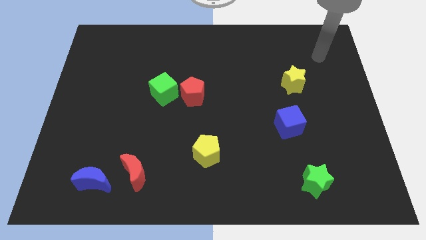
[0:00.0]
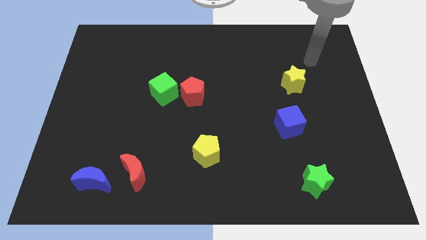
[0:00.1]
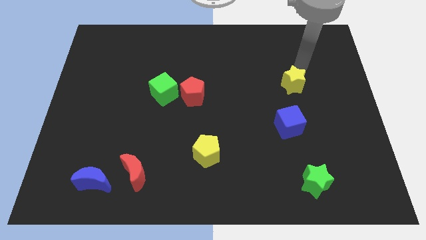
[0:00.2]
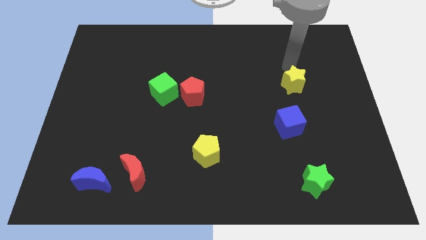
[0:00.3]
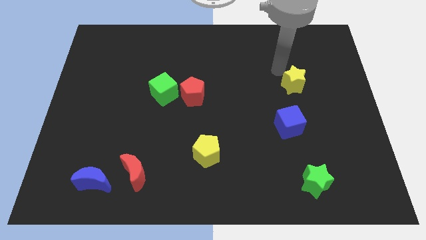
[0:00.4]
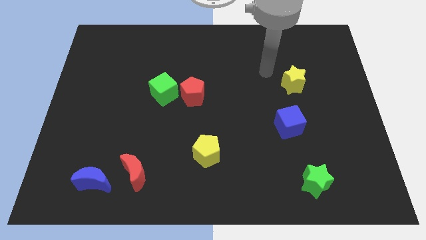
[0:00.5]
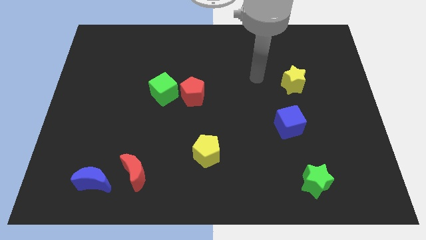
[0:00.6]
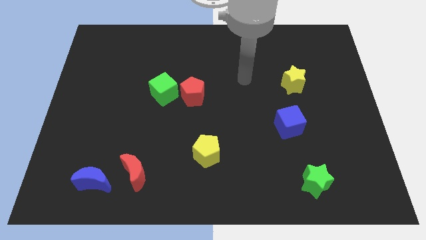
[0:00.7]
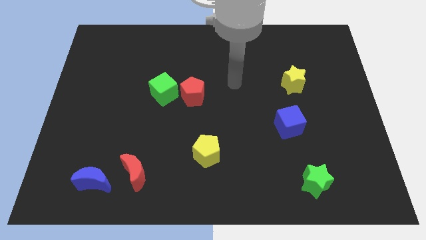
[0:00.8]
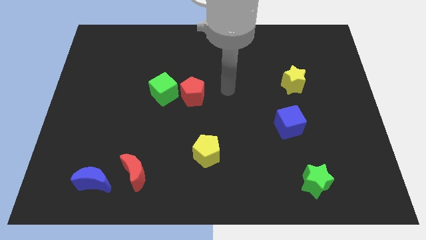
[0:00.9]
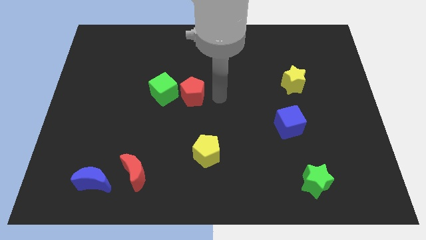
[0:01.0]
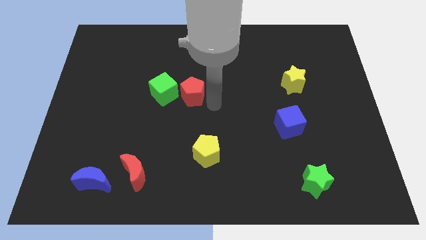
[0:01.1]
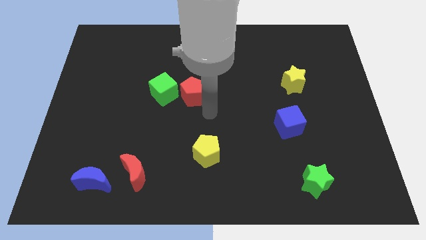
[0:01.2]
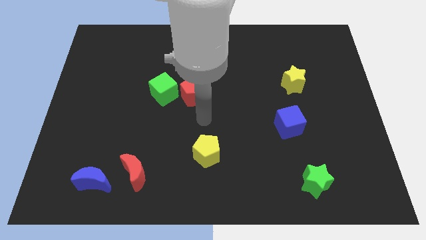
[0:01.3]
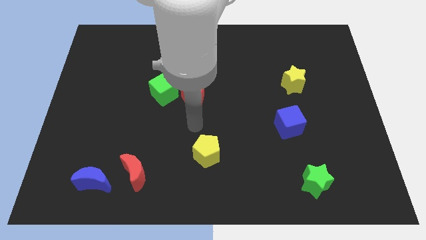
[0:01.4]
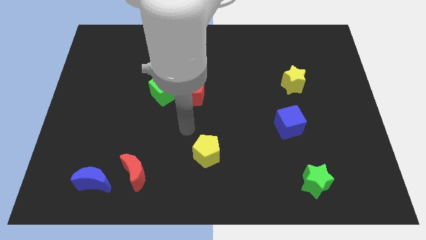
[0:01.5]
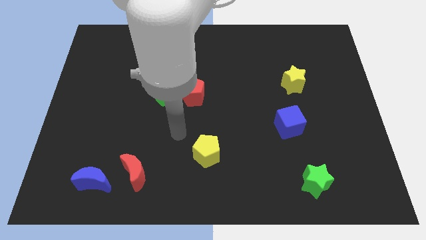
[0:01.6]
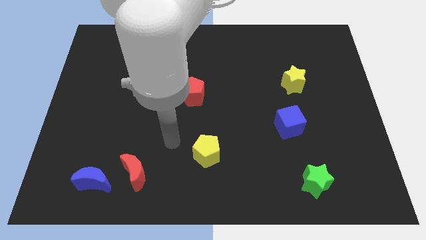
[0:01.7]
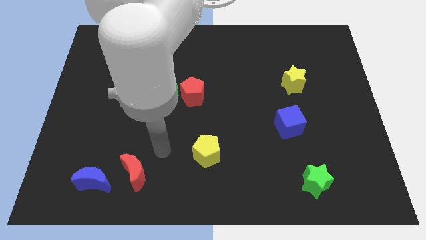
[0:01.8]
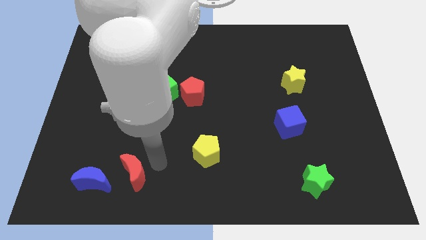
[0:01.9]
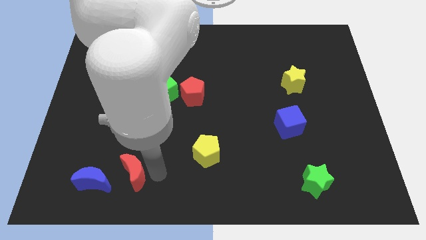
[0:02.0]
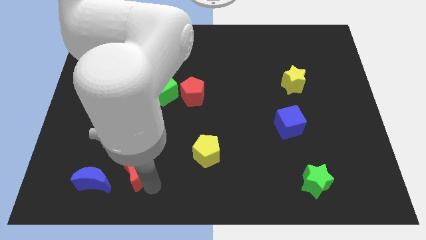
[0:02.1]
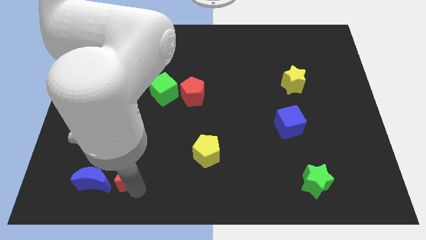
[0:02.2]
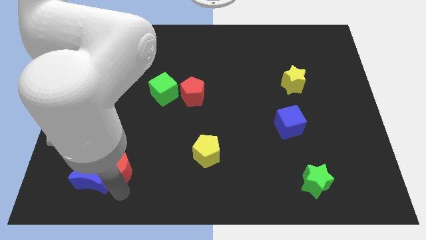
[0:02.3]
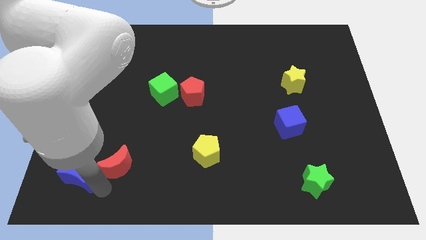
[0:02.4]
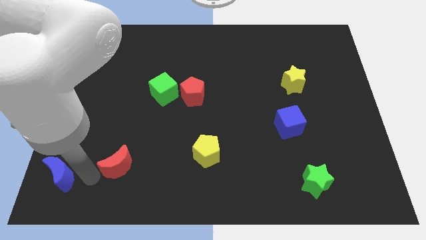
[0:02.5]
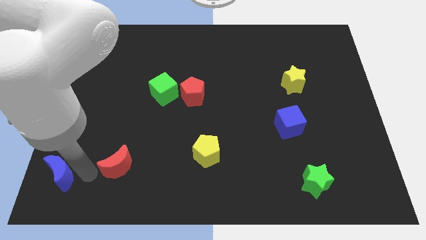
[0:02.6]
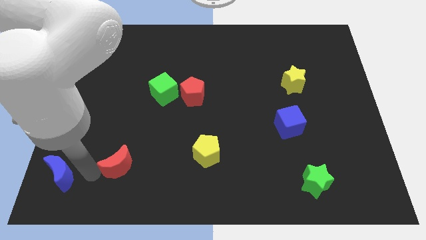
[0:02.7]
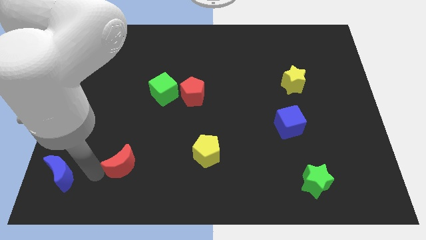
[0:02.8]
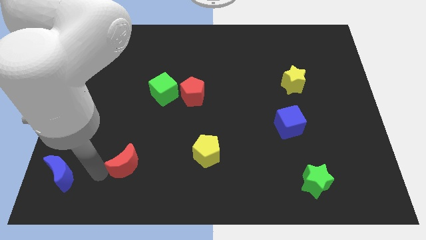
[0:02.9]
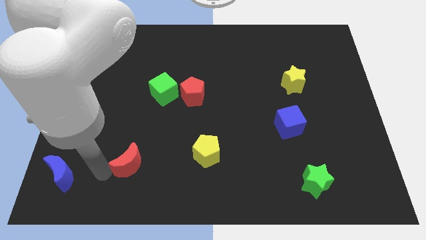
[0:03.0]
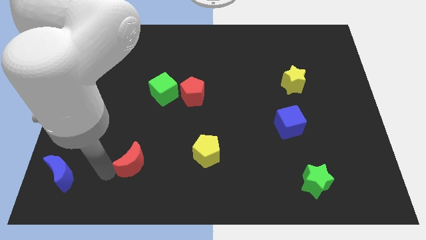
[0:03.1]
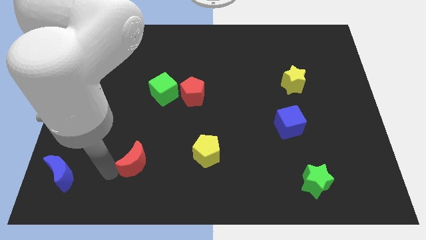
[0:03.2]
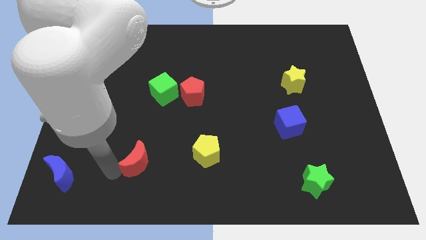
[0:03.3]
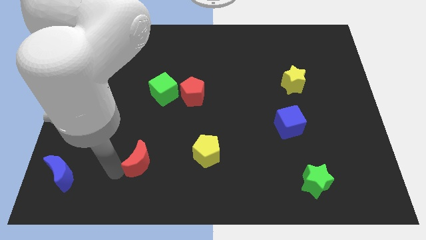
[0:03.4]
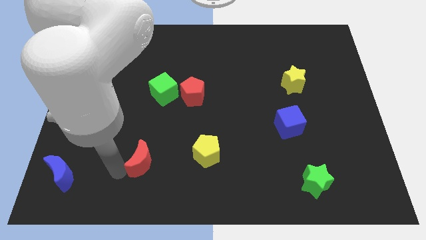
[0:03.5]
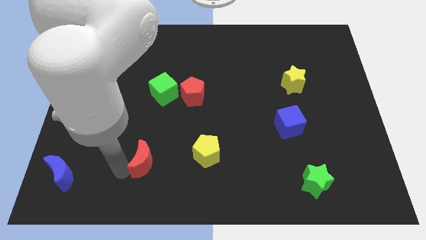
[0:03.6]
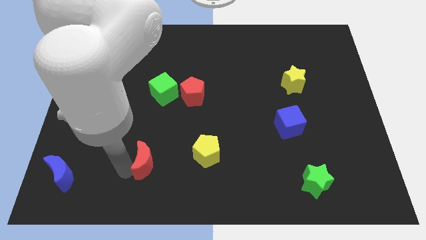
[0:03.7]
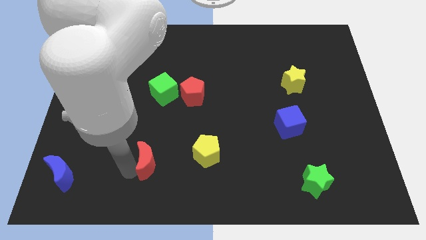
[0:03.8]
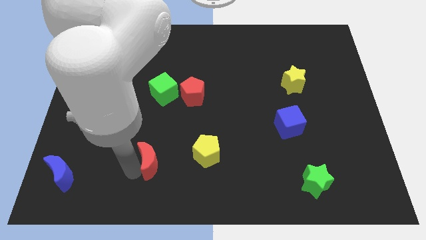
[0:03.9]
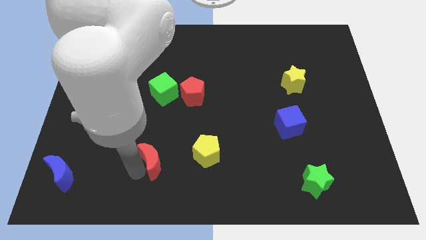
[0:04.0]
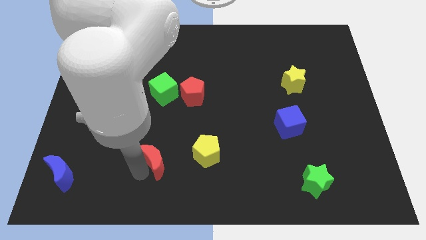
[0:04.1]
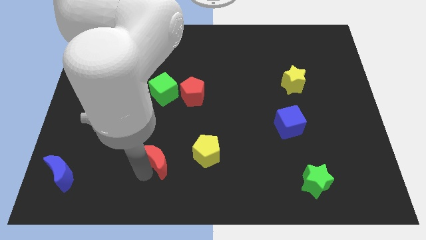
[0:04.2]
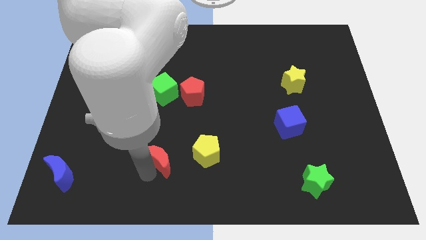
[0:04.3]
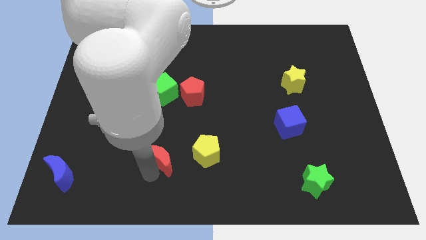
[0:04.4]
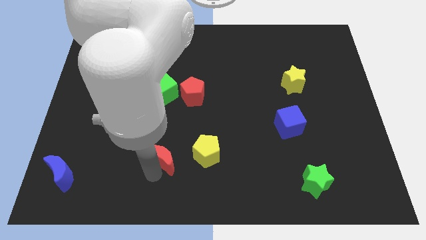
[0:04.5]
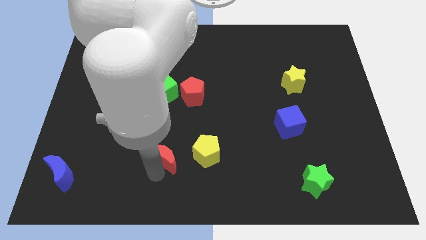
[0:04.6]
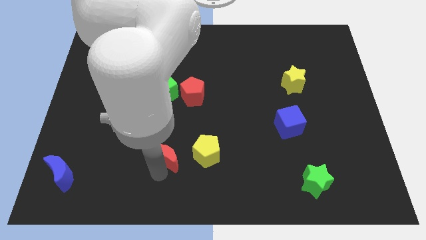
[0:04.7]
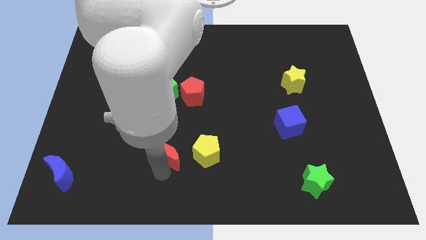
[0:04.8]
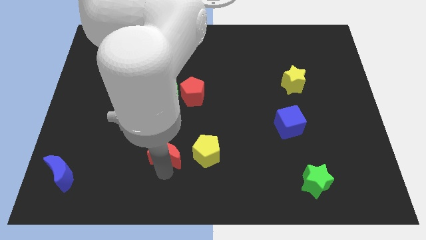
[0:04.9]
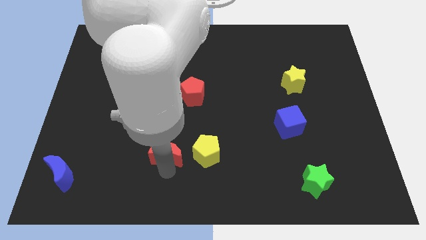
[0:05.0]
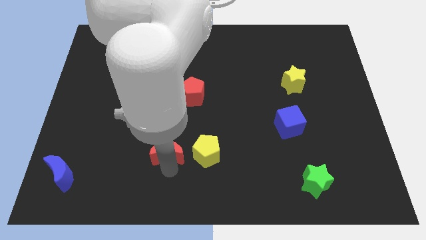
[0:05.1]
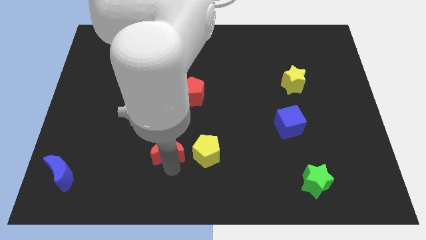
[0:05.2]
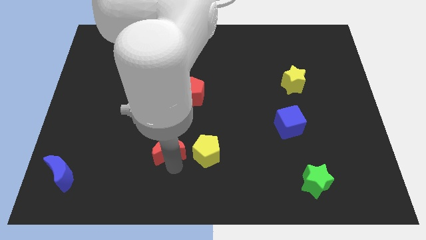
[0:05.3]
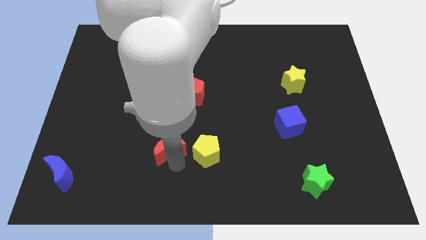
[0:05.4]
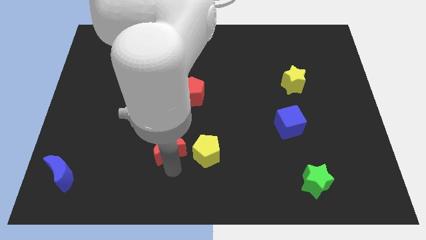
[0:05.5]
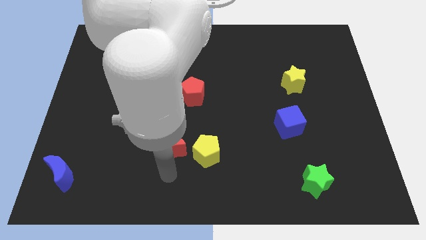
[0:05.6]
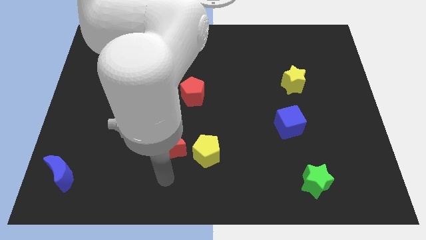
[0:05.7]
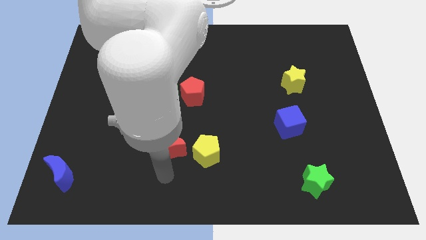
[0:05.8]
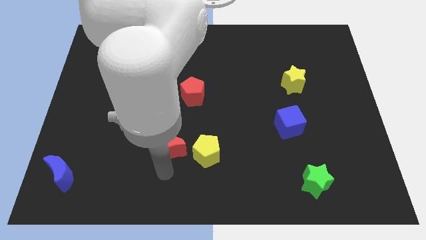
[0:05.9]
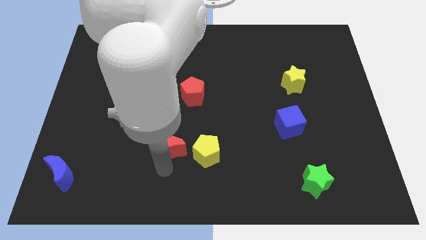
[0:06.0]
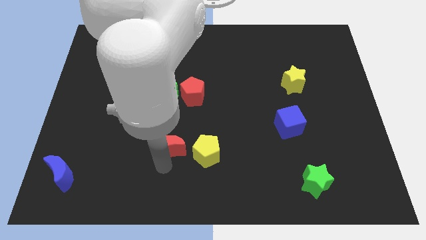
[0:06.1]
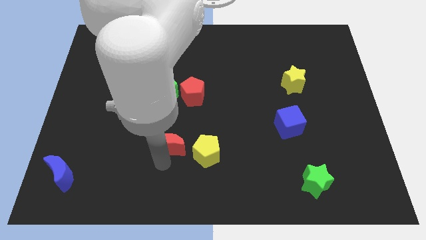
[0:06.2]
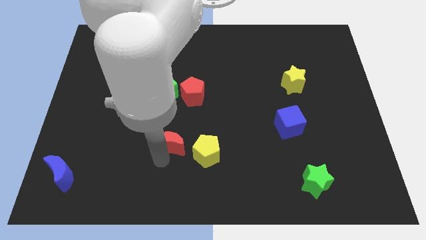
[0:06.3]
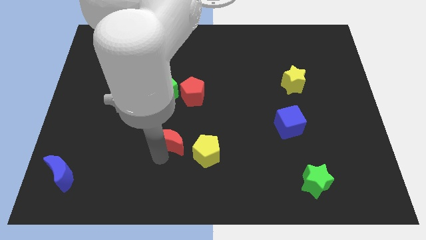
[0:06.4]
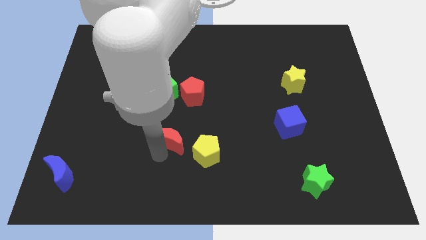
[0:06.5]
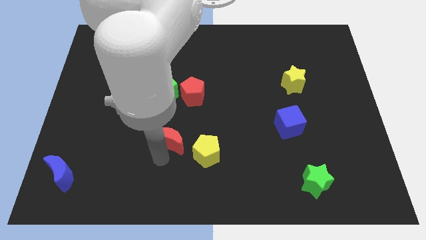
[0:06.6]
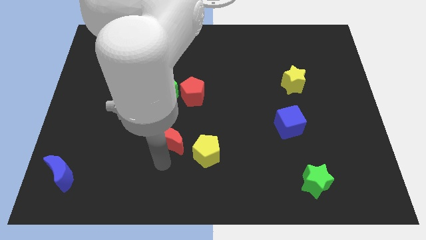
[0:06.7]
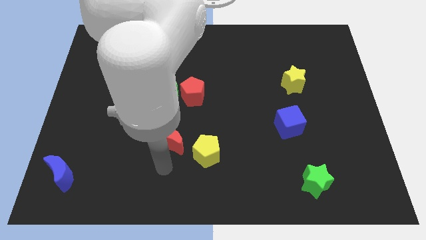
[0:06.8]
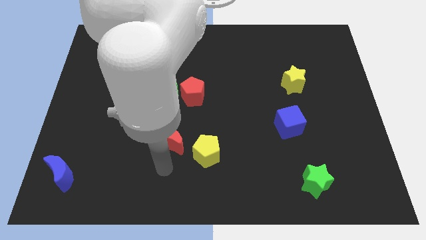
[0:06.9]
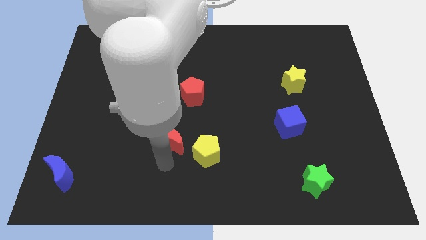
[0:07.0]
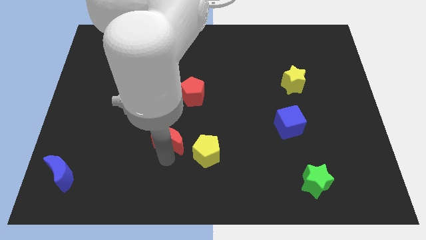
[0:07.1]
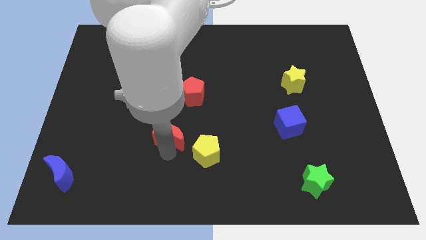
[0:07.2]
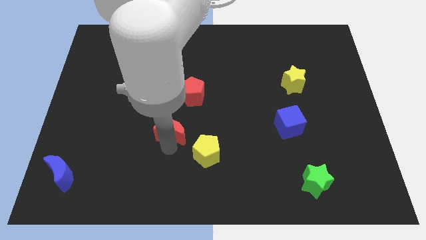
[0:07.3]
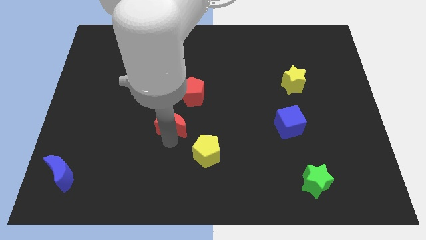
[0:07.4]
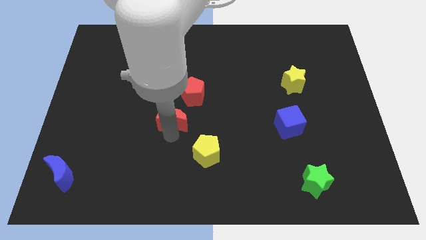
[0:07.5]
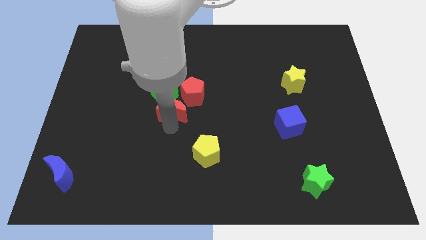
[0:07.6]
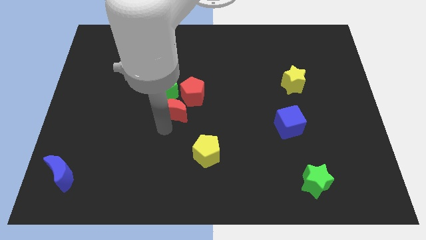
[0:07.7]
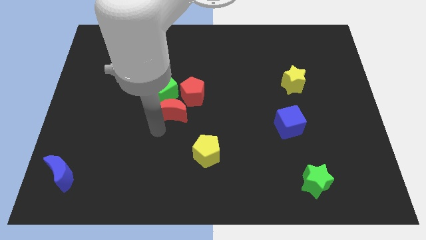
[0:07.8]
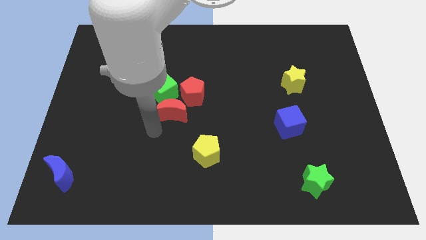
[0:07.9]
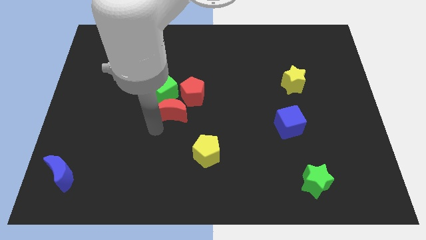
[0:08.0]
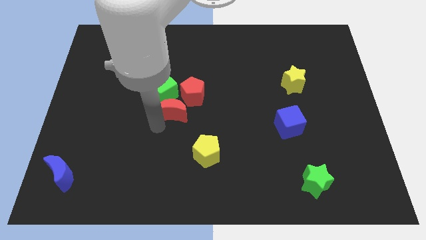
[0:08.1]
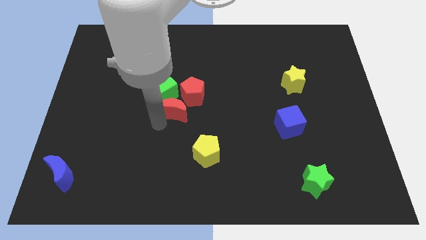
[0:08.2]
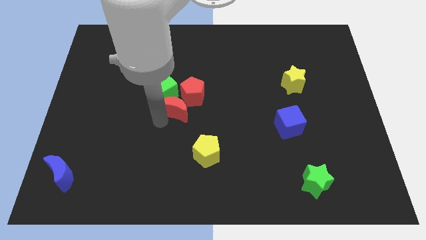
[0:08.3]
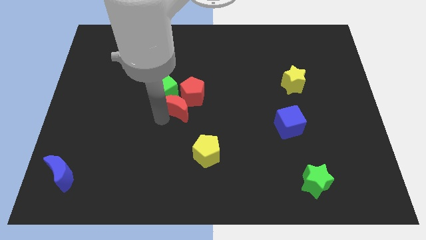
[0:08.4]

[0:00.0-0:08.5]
put the red moon to the red pentagon
